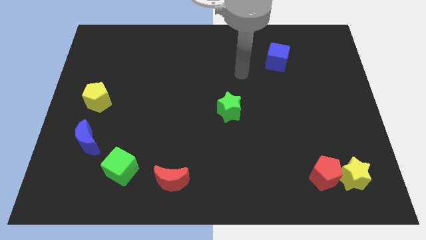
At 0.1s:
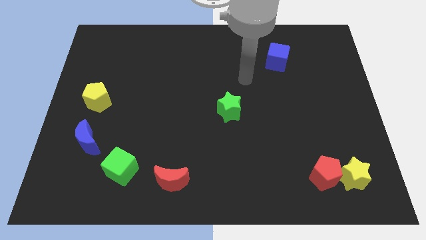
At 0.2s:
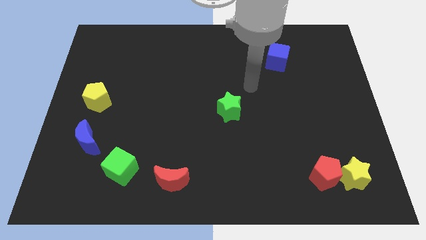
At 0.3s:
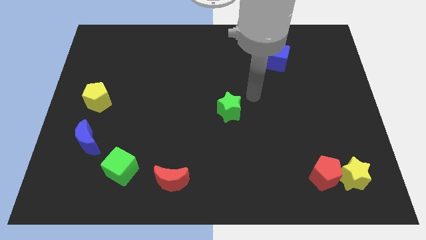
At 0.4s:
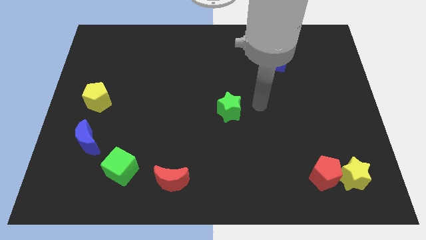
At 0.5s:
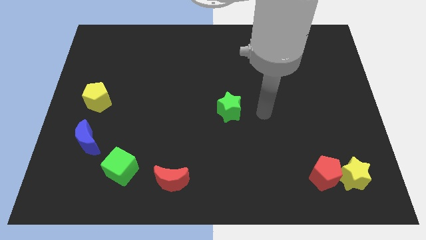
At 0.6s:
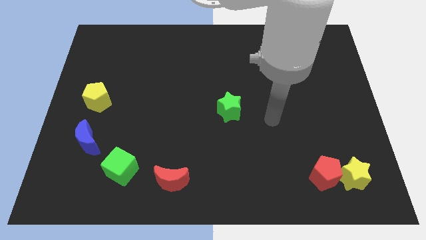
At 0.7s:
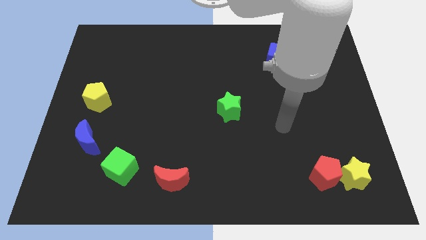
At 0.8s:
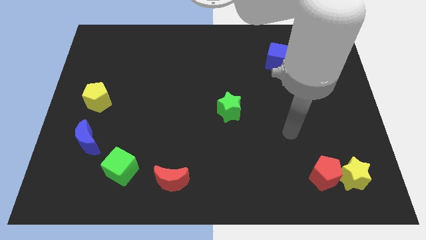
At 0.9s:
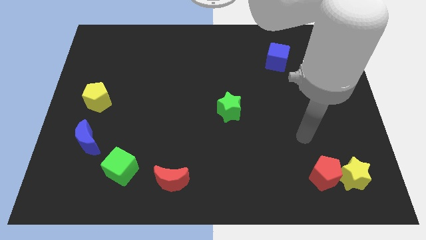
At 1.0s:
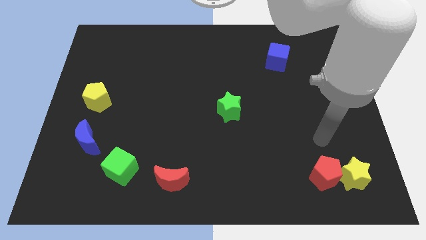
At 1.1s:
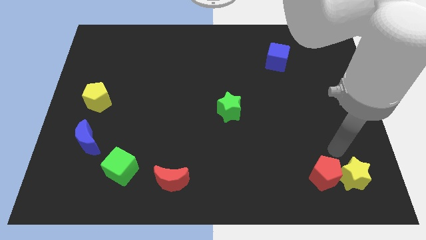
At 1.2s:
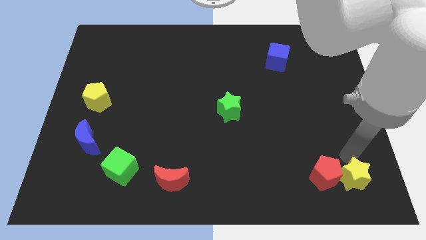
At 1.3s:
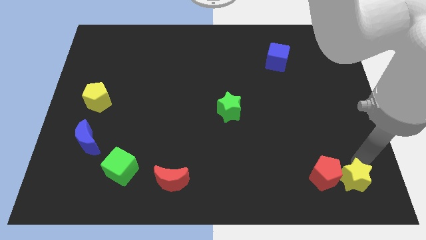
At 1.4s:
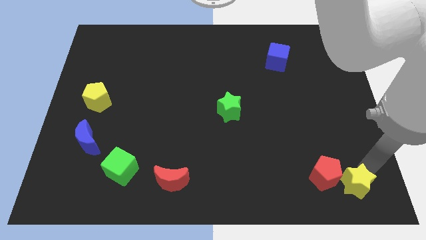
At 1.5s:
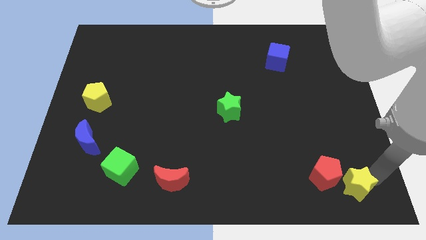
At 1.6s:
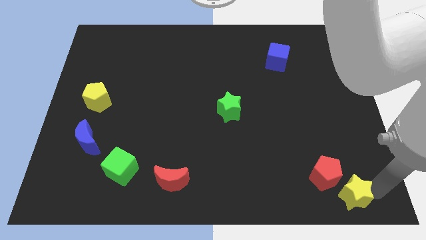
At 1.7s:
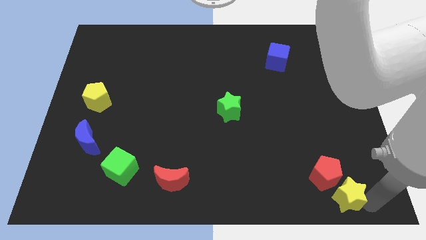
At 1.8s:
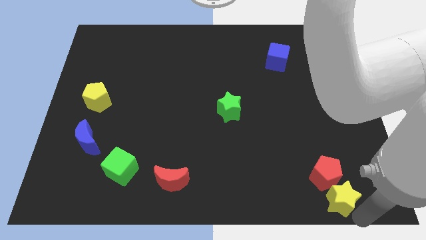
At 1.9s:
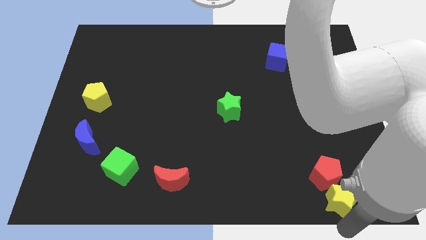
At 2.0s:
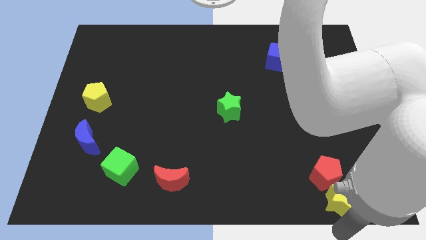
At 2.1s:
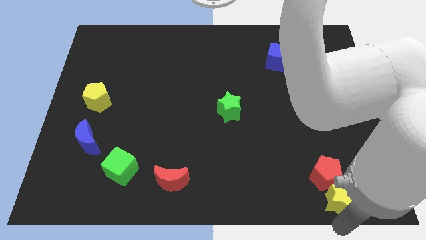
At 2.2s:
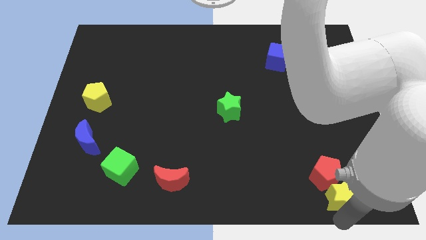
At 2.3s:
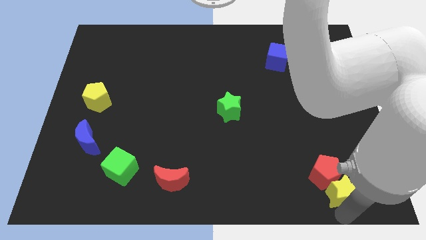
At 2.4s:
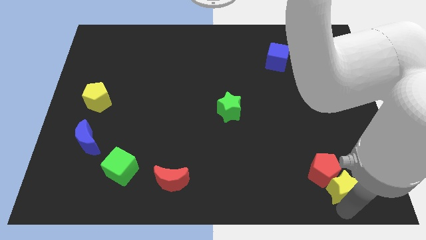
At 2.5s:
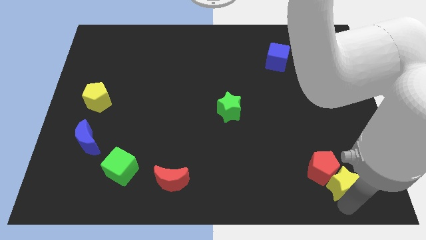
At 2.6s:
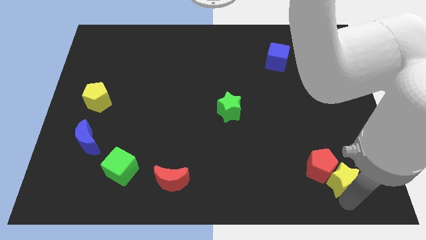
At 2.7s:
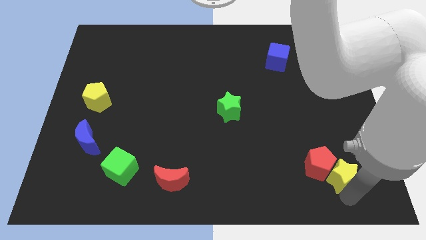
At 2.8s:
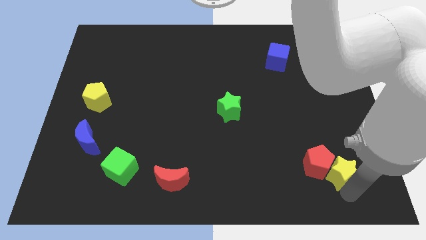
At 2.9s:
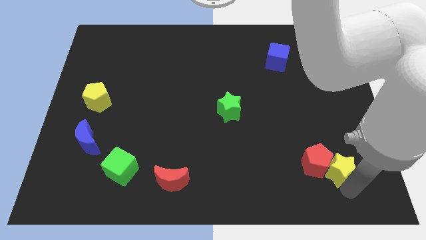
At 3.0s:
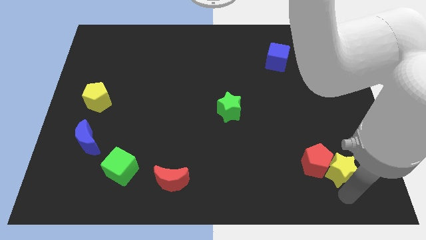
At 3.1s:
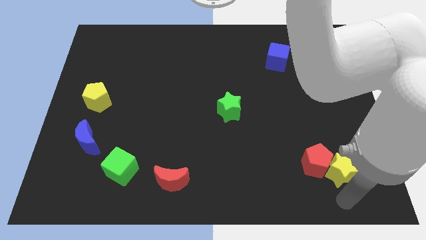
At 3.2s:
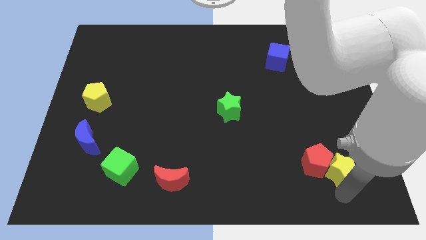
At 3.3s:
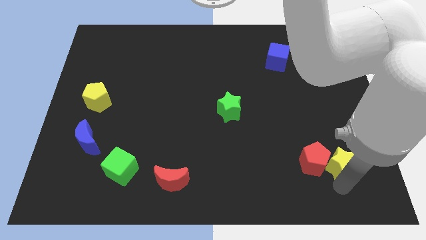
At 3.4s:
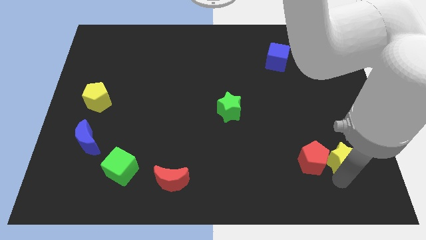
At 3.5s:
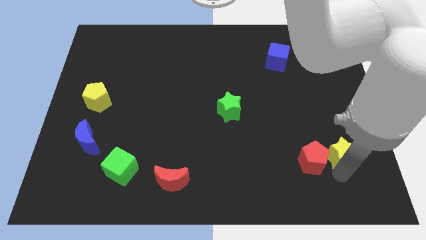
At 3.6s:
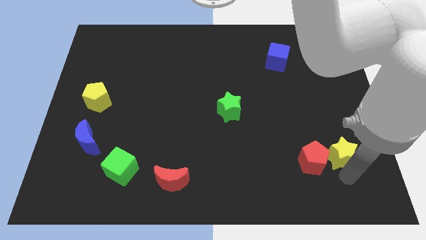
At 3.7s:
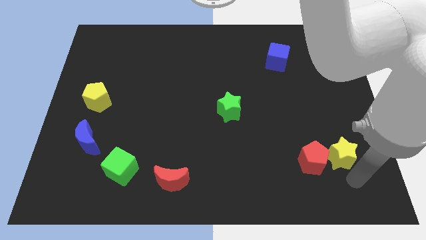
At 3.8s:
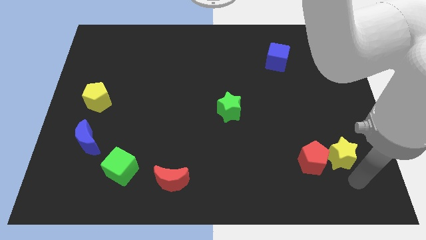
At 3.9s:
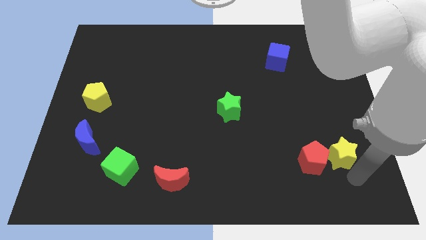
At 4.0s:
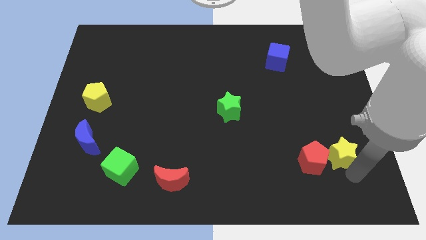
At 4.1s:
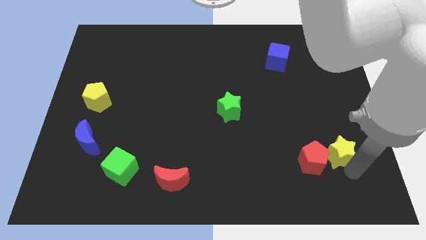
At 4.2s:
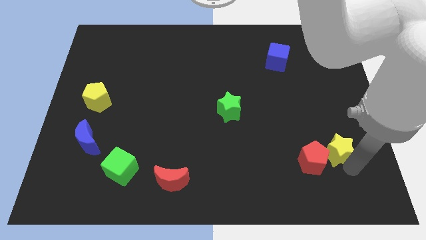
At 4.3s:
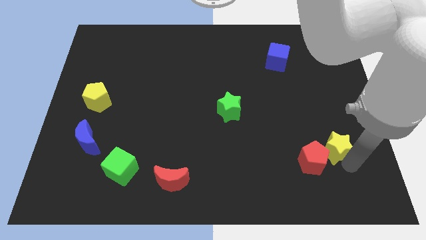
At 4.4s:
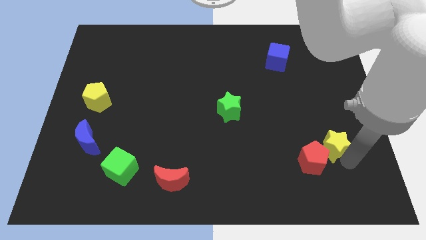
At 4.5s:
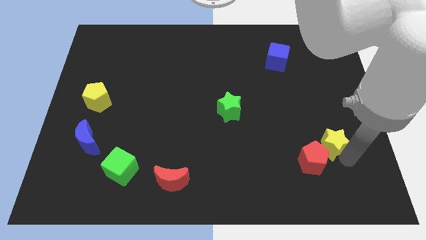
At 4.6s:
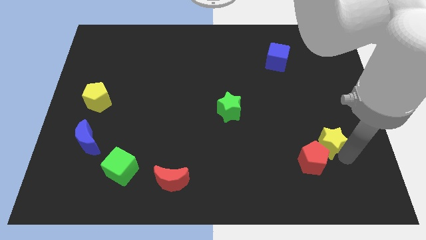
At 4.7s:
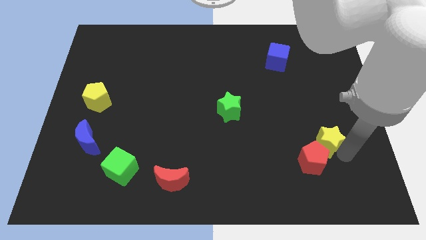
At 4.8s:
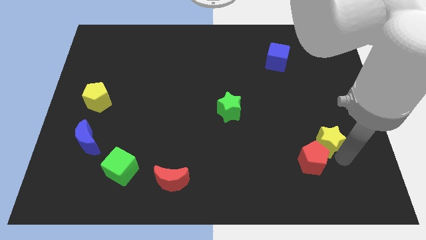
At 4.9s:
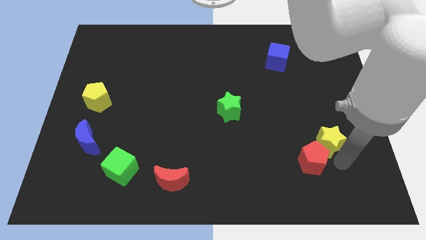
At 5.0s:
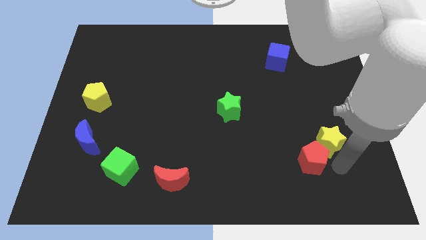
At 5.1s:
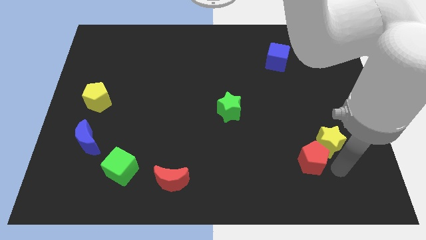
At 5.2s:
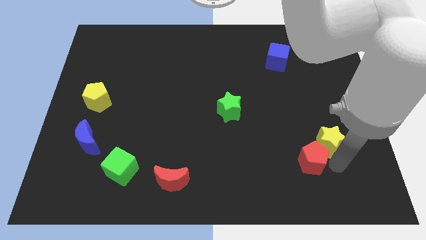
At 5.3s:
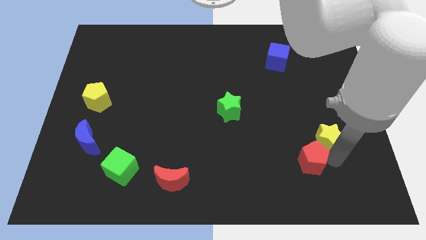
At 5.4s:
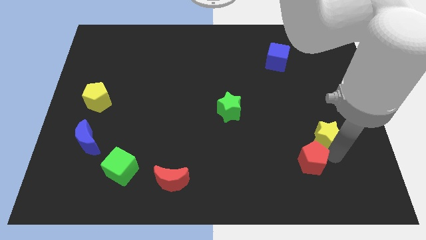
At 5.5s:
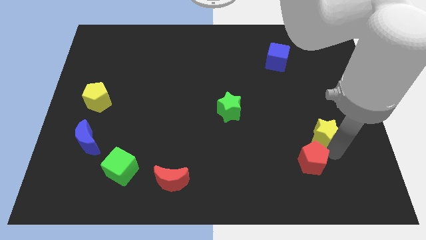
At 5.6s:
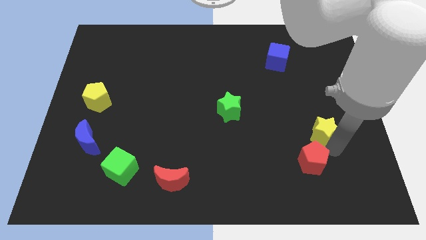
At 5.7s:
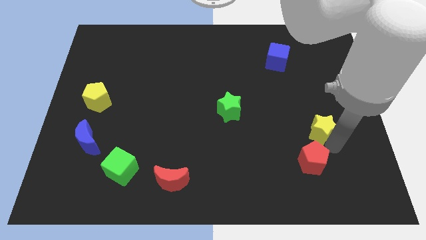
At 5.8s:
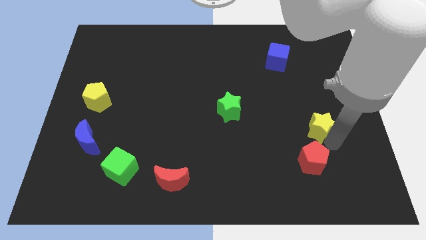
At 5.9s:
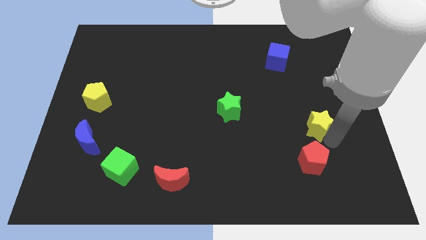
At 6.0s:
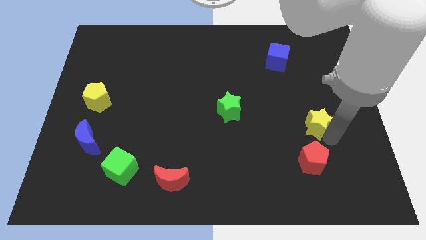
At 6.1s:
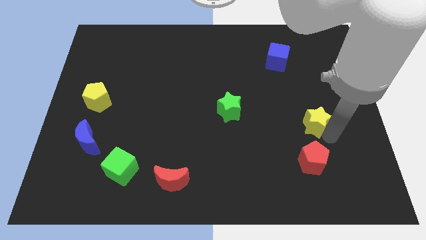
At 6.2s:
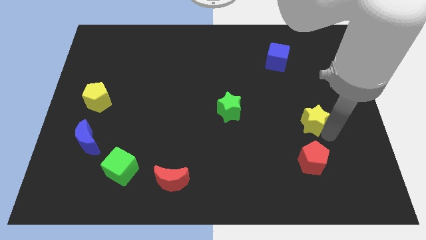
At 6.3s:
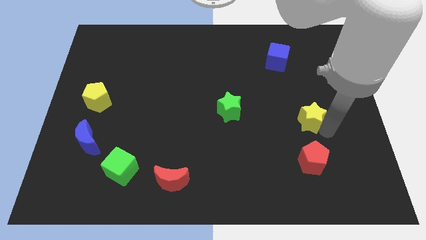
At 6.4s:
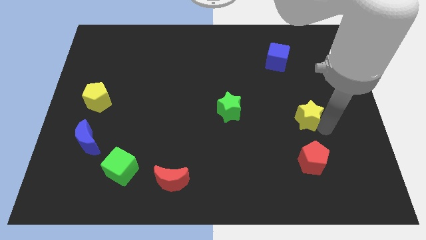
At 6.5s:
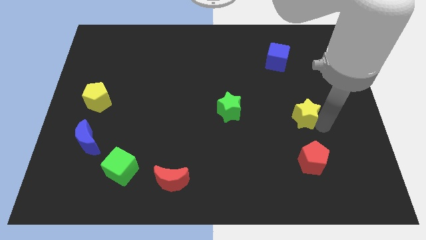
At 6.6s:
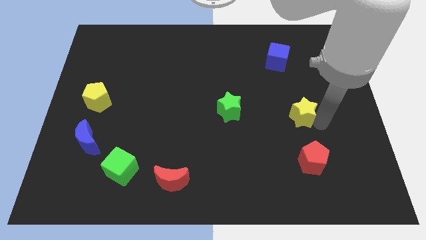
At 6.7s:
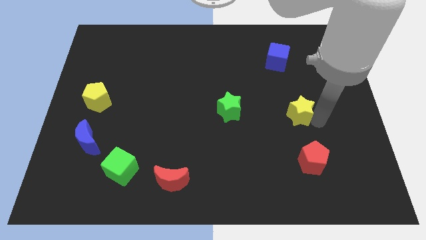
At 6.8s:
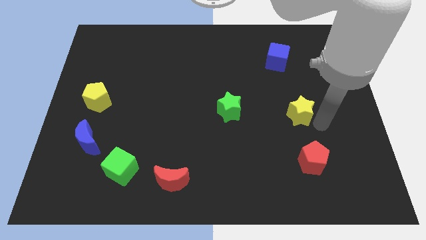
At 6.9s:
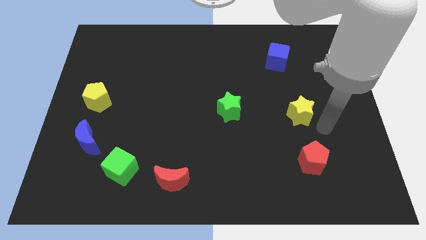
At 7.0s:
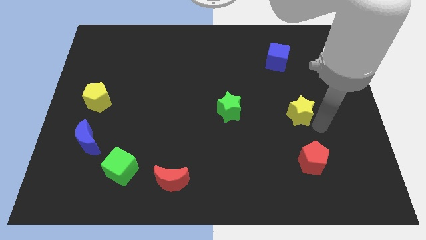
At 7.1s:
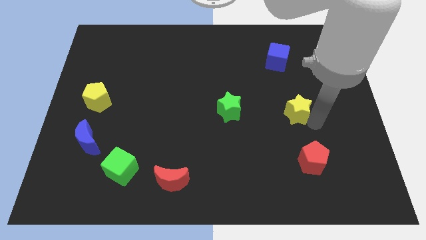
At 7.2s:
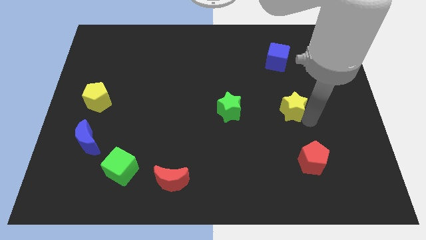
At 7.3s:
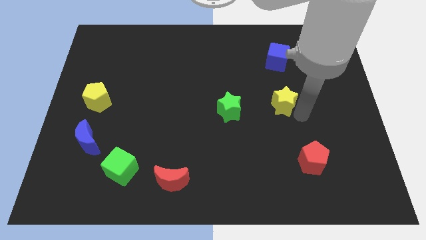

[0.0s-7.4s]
push the yellow star up and left diagonally

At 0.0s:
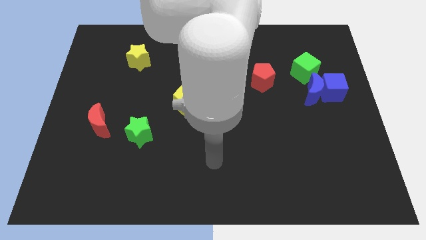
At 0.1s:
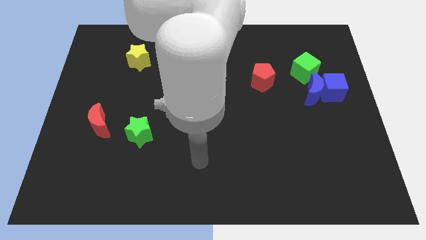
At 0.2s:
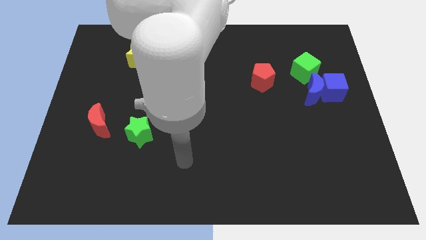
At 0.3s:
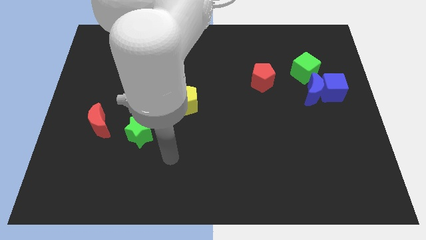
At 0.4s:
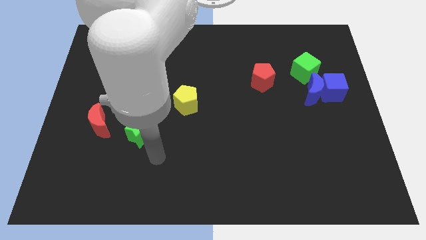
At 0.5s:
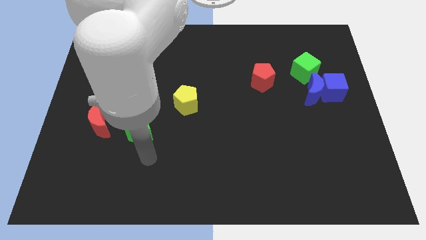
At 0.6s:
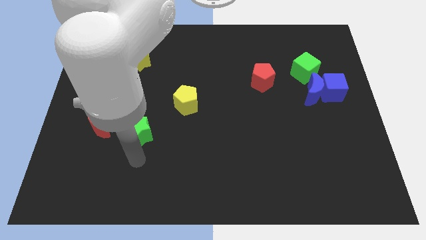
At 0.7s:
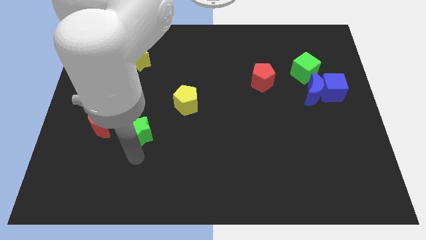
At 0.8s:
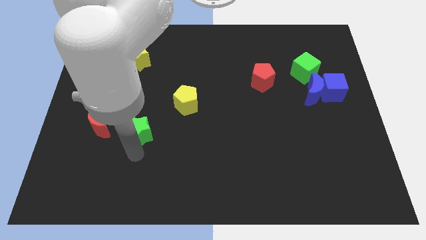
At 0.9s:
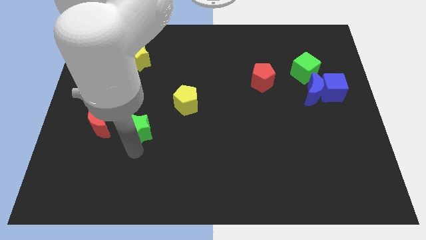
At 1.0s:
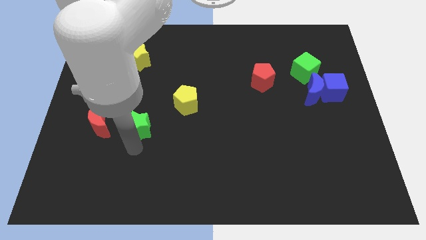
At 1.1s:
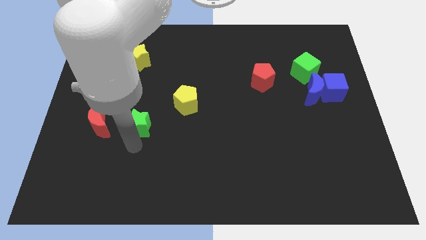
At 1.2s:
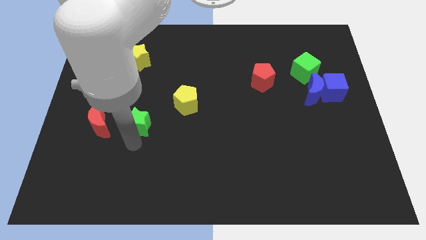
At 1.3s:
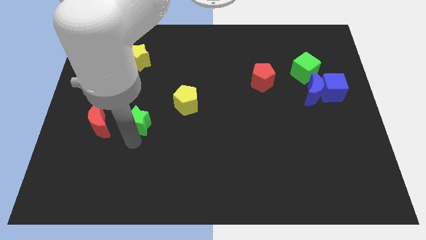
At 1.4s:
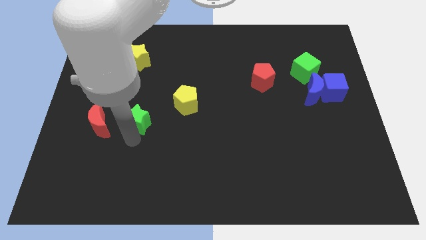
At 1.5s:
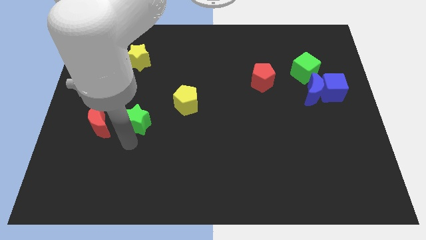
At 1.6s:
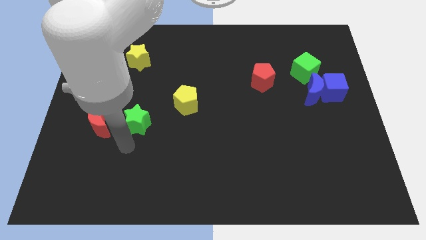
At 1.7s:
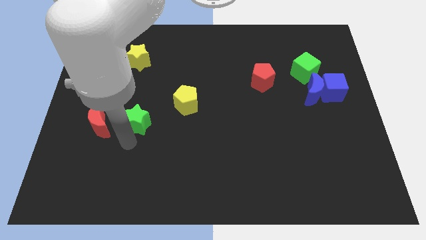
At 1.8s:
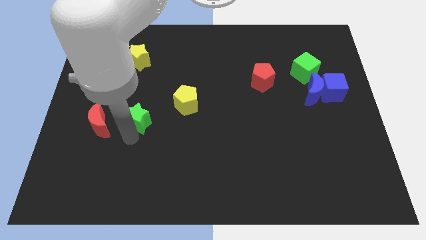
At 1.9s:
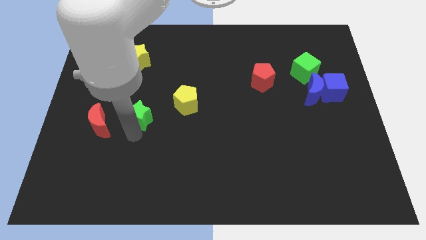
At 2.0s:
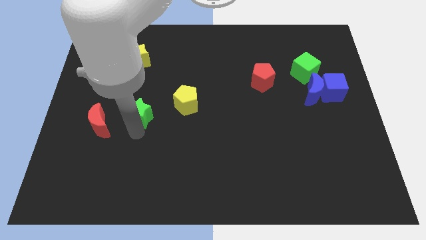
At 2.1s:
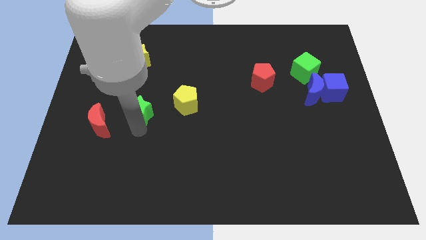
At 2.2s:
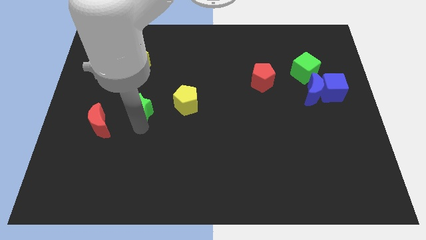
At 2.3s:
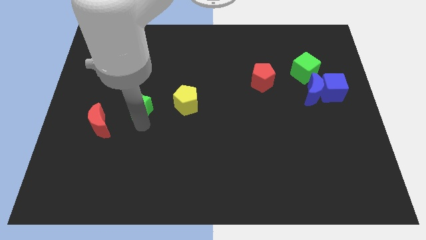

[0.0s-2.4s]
slide the green star a little upwards
